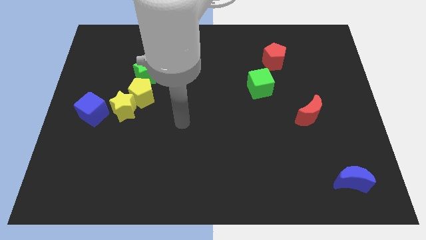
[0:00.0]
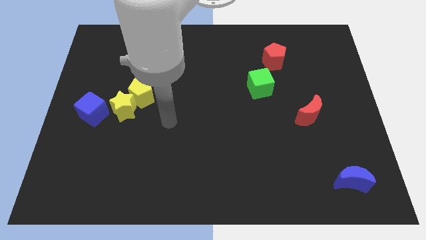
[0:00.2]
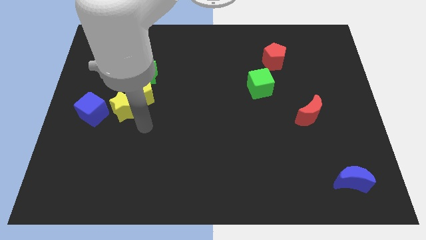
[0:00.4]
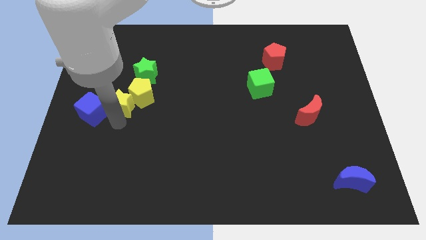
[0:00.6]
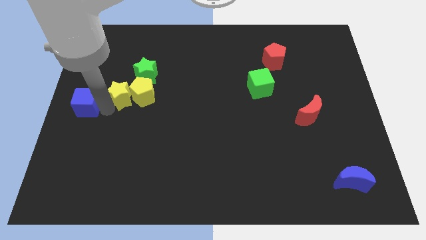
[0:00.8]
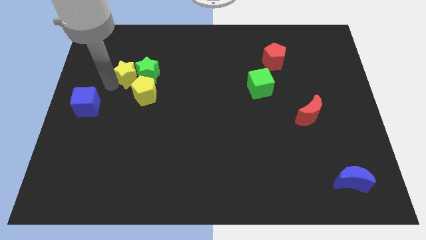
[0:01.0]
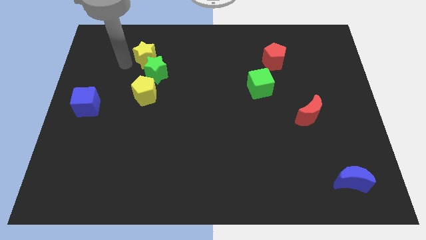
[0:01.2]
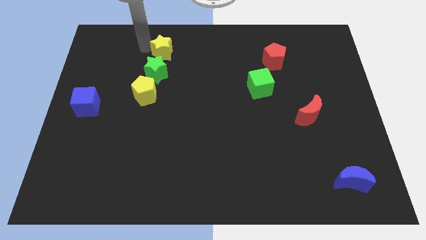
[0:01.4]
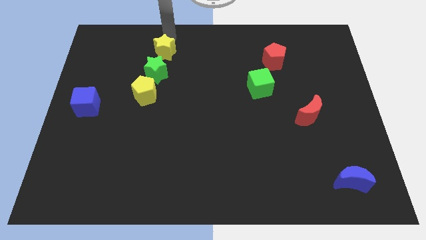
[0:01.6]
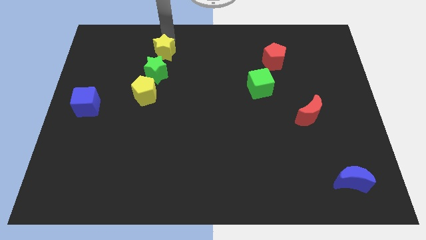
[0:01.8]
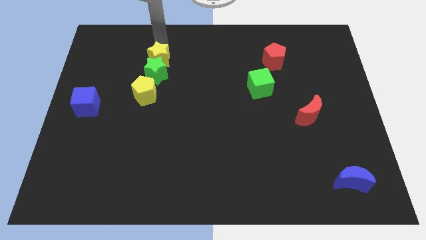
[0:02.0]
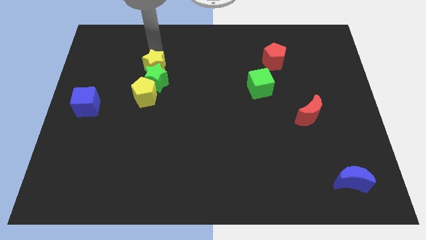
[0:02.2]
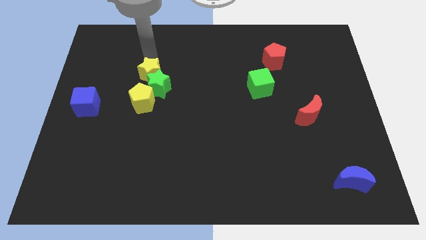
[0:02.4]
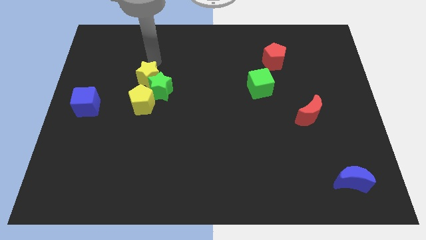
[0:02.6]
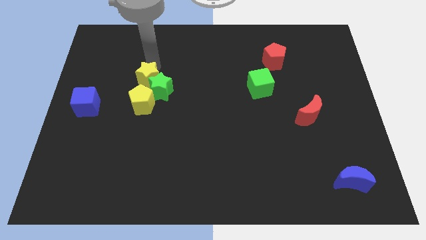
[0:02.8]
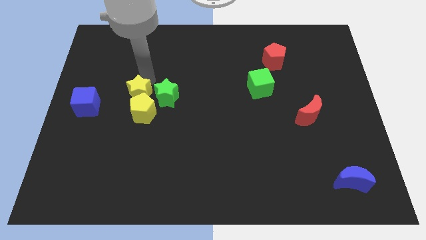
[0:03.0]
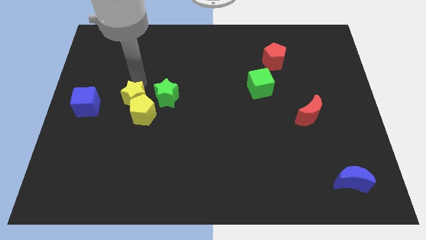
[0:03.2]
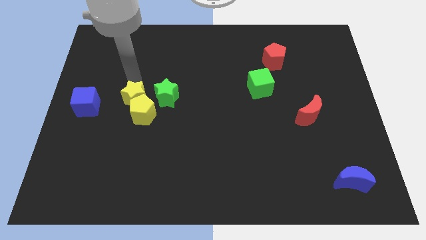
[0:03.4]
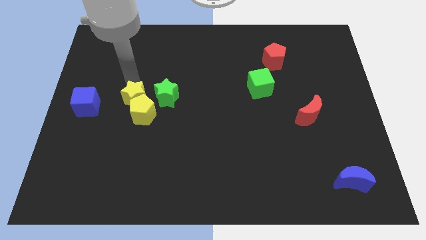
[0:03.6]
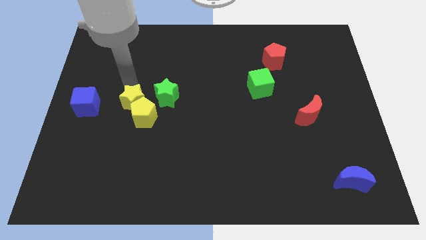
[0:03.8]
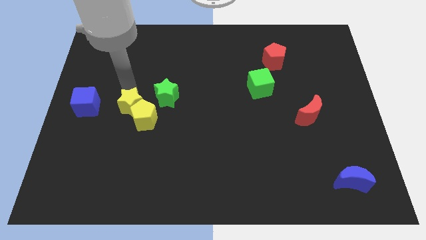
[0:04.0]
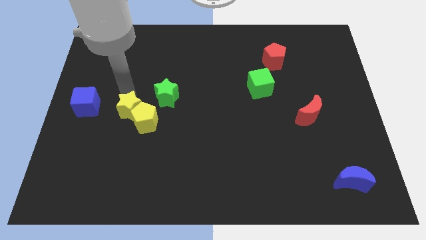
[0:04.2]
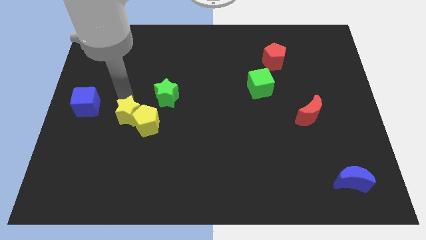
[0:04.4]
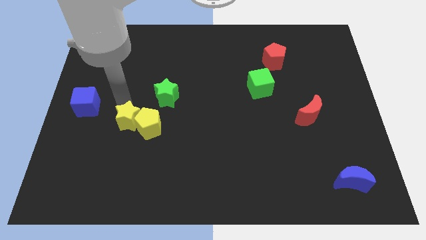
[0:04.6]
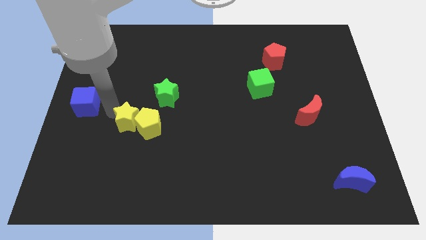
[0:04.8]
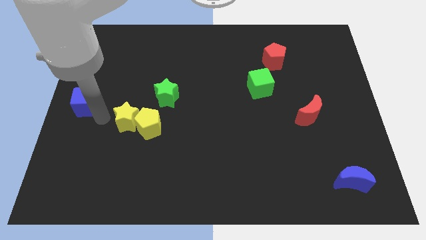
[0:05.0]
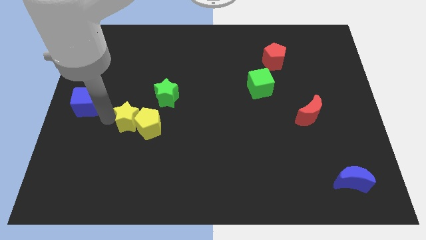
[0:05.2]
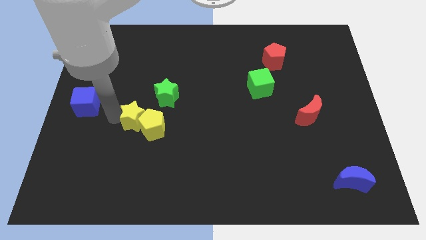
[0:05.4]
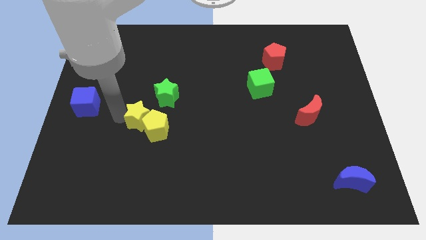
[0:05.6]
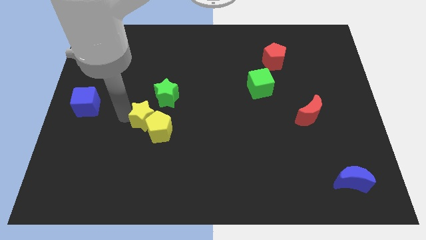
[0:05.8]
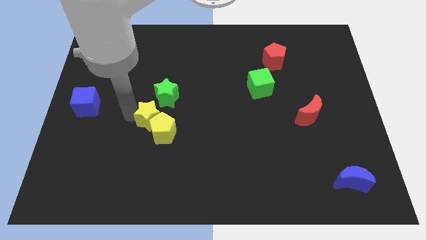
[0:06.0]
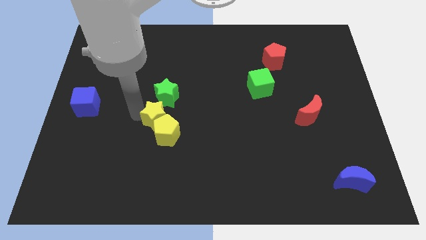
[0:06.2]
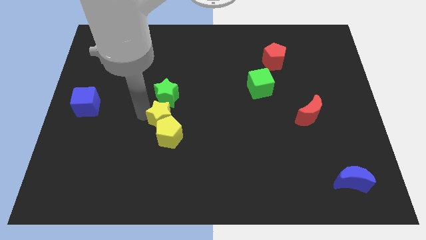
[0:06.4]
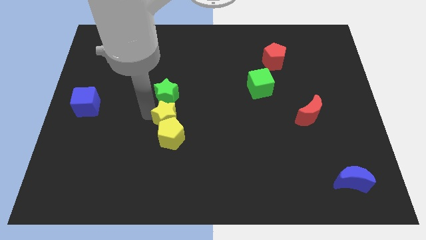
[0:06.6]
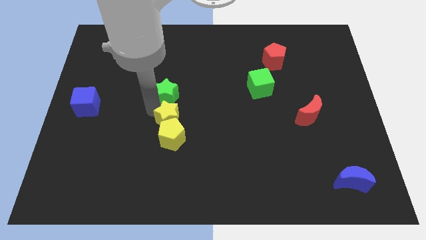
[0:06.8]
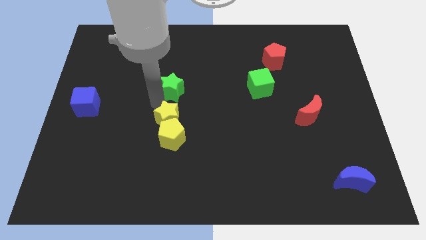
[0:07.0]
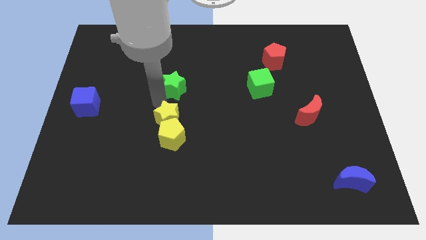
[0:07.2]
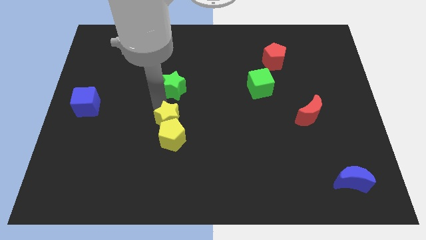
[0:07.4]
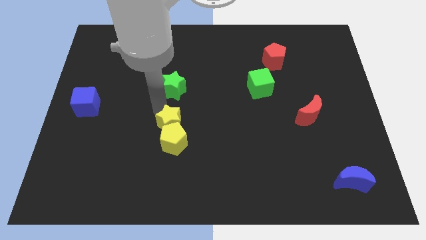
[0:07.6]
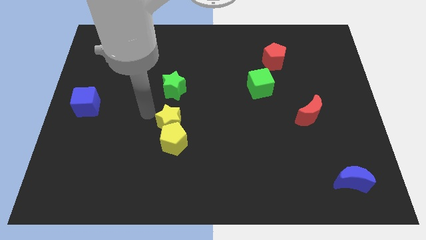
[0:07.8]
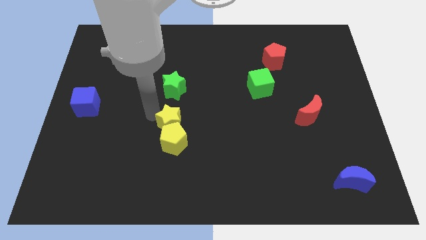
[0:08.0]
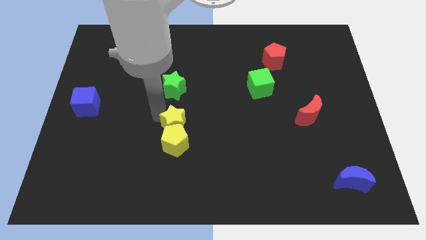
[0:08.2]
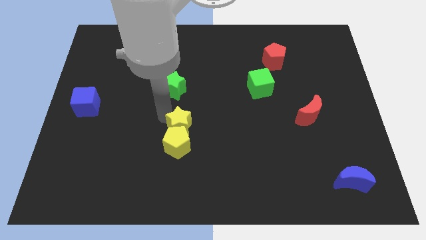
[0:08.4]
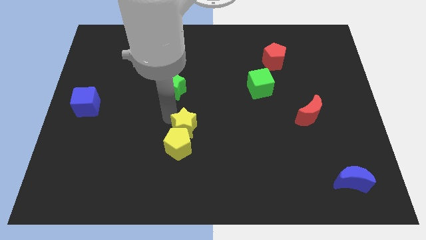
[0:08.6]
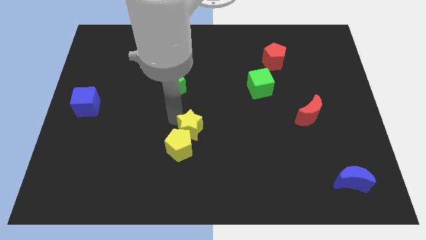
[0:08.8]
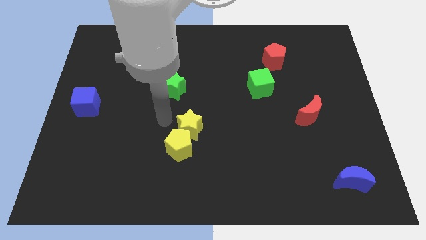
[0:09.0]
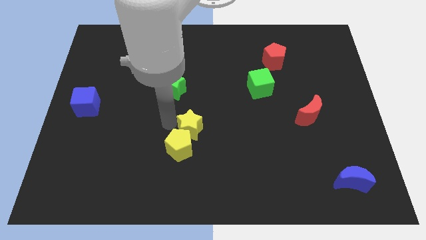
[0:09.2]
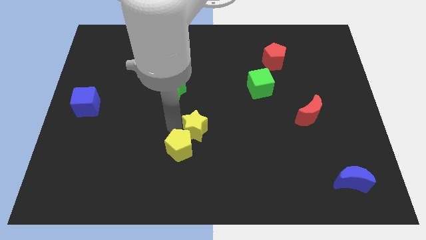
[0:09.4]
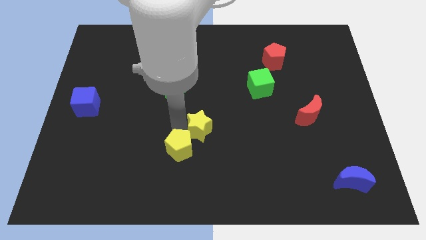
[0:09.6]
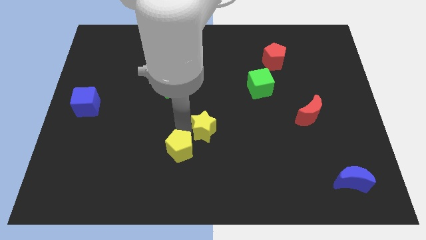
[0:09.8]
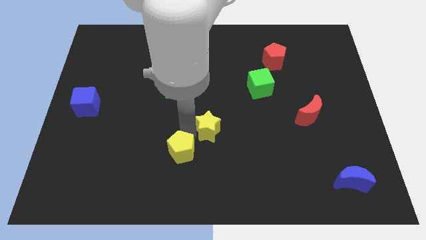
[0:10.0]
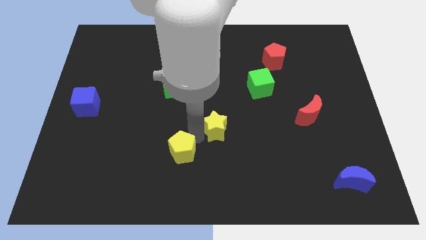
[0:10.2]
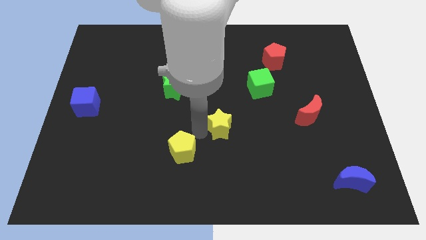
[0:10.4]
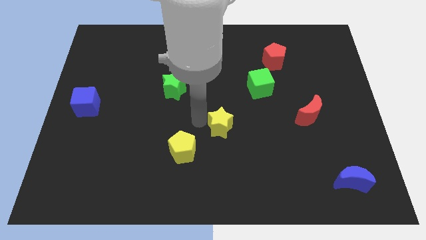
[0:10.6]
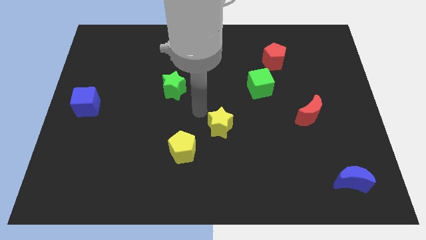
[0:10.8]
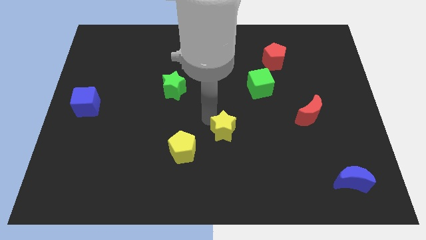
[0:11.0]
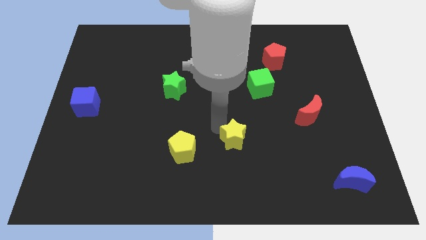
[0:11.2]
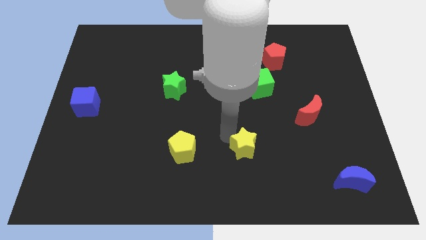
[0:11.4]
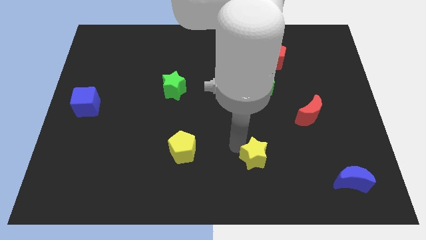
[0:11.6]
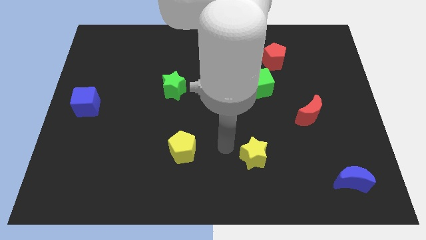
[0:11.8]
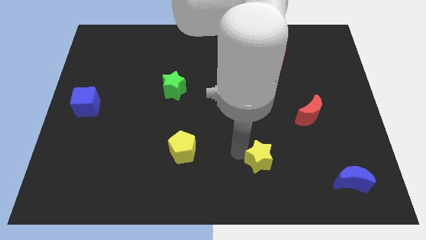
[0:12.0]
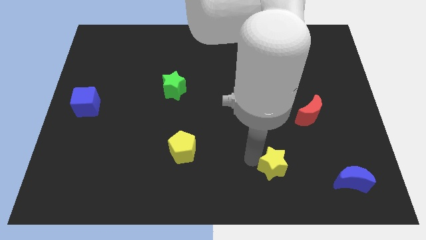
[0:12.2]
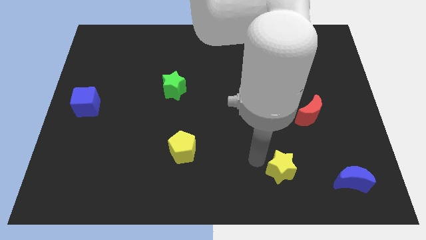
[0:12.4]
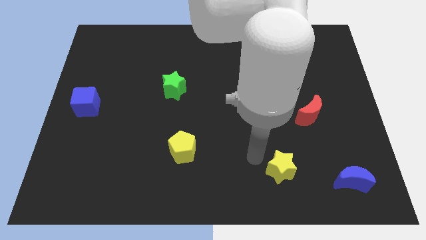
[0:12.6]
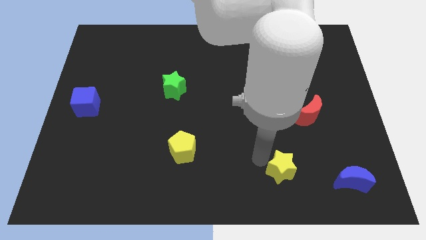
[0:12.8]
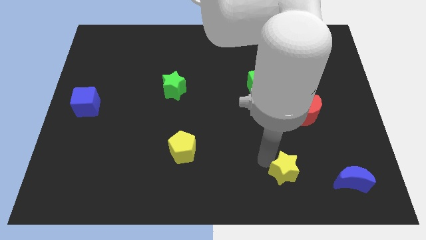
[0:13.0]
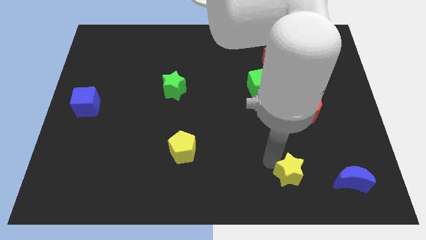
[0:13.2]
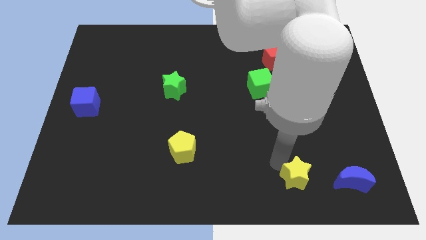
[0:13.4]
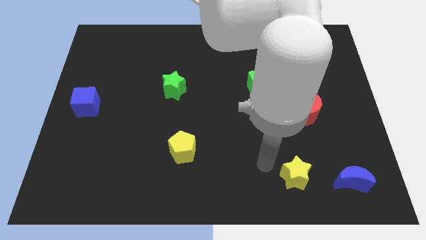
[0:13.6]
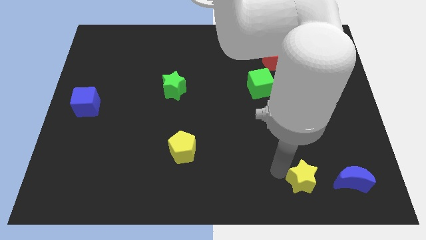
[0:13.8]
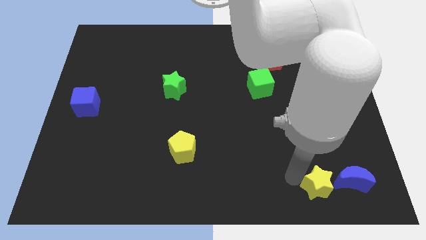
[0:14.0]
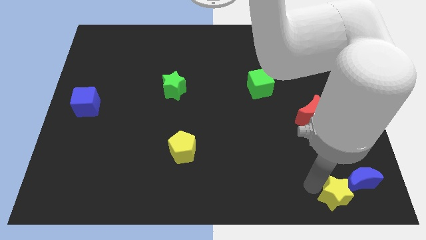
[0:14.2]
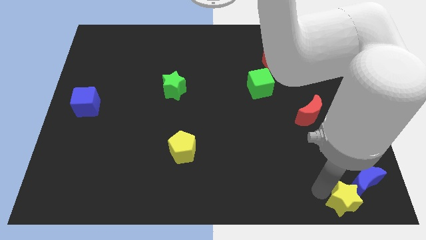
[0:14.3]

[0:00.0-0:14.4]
put the yellow star to the lower right corner
